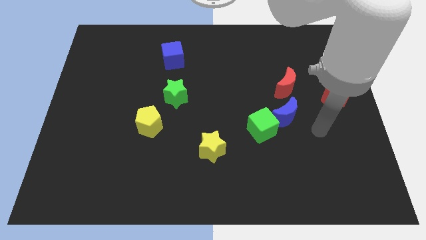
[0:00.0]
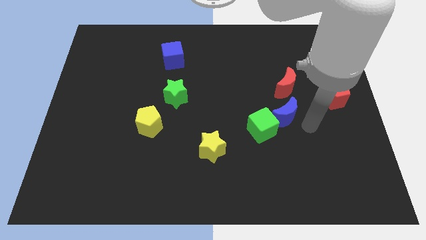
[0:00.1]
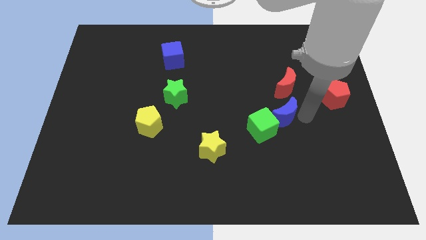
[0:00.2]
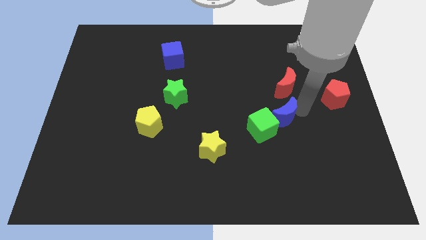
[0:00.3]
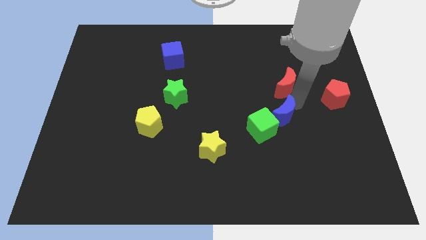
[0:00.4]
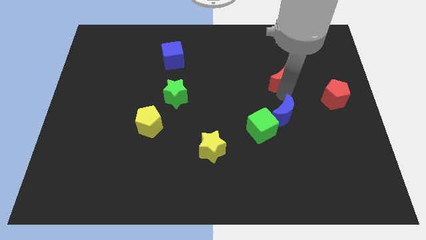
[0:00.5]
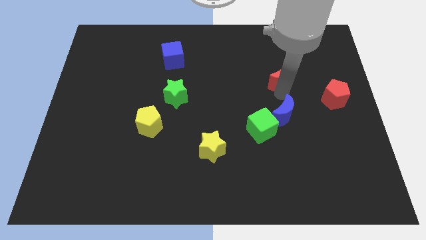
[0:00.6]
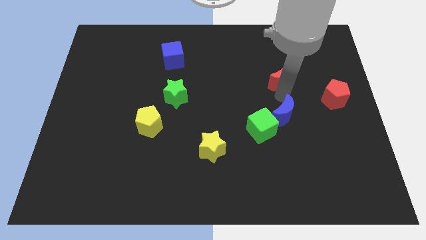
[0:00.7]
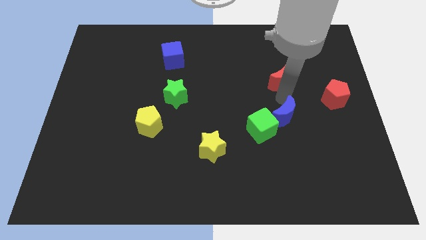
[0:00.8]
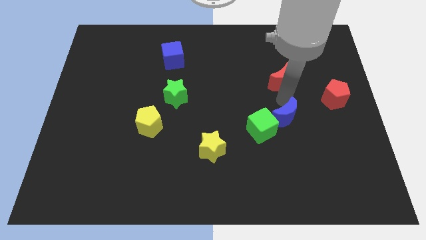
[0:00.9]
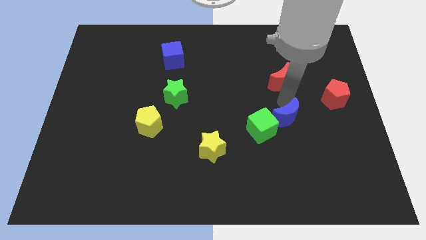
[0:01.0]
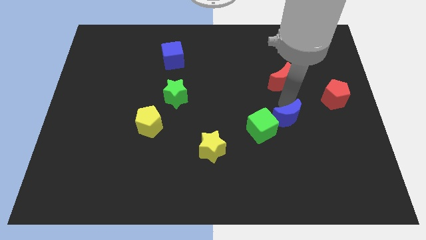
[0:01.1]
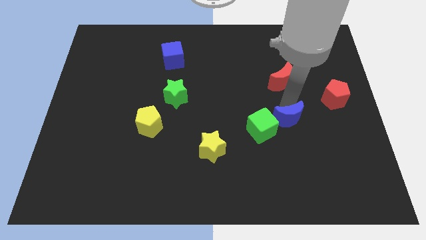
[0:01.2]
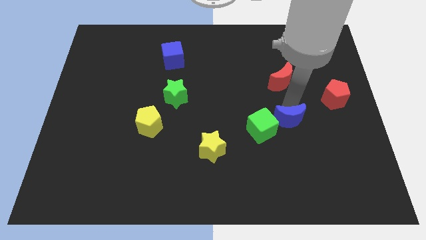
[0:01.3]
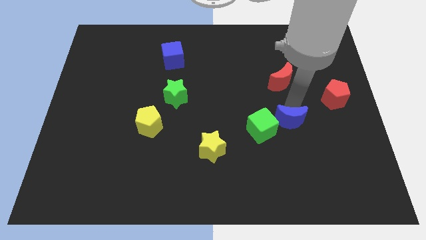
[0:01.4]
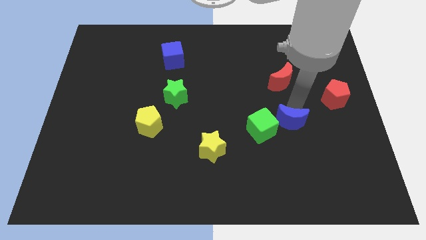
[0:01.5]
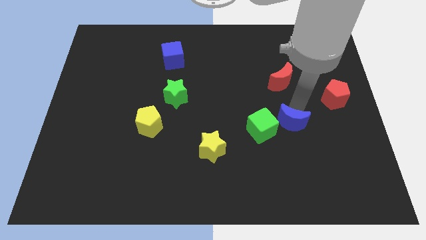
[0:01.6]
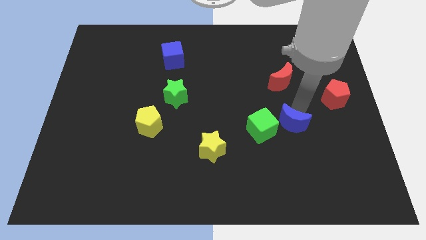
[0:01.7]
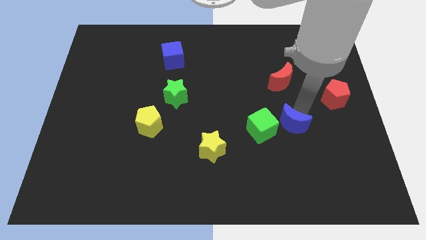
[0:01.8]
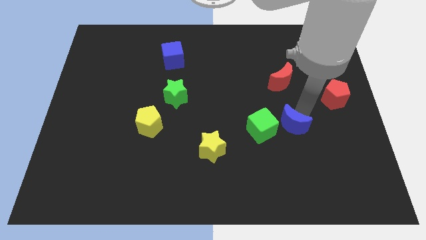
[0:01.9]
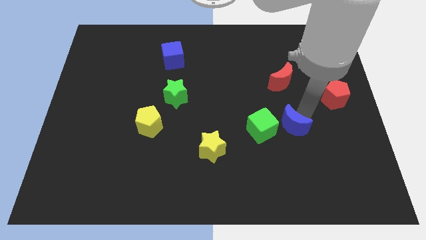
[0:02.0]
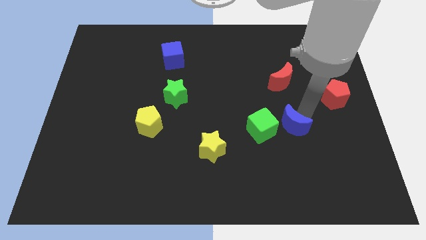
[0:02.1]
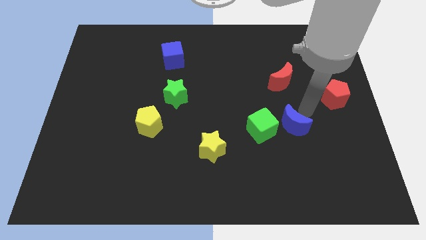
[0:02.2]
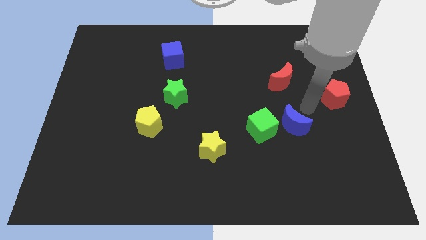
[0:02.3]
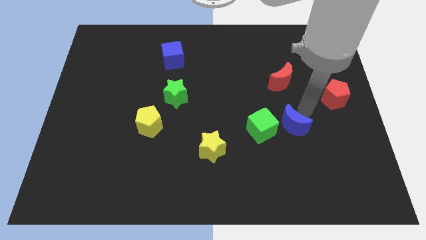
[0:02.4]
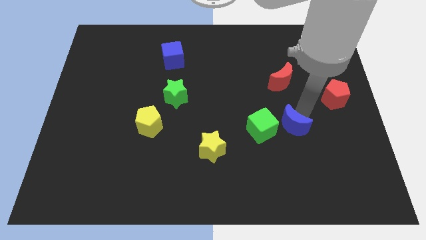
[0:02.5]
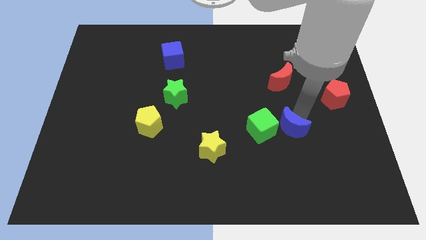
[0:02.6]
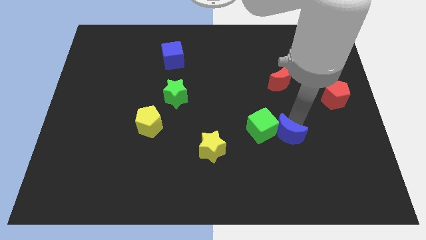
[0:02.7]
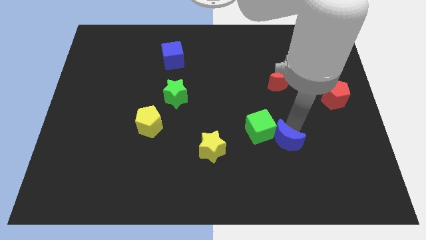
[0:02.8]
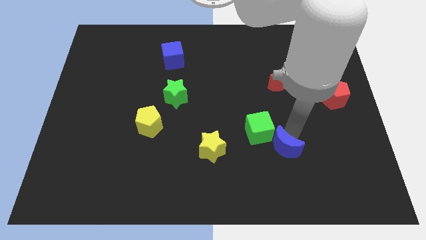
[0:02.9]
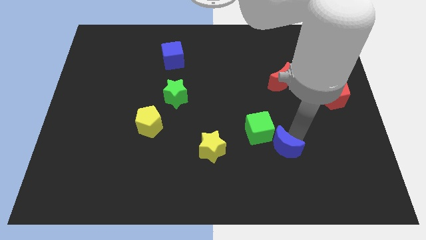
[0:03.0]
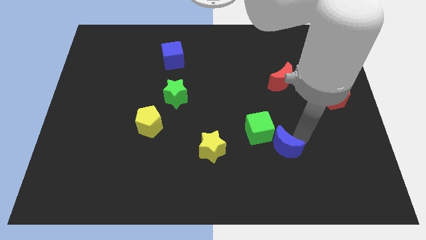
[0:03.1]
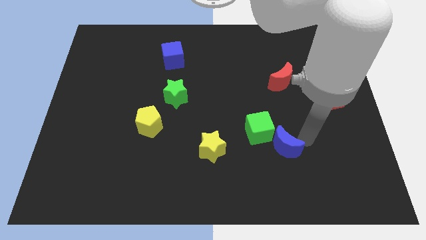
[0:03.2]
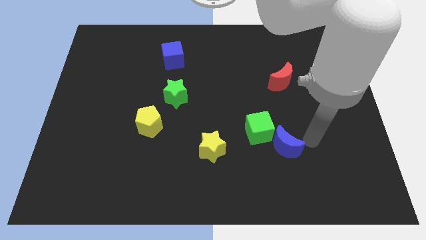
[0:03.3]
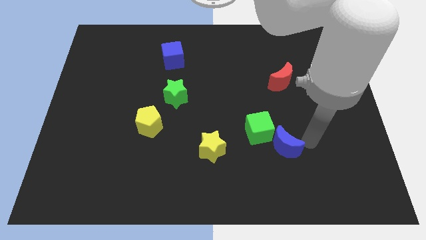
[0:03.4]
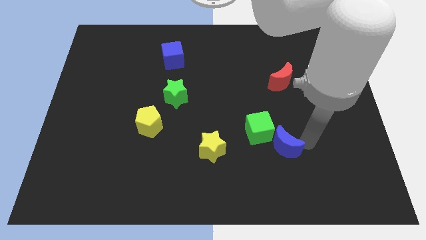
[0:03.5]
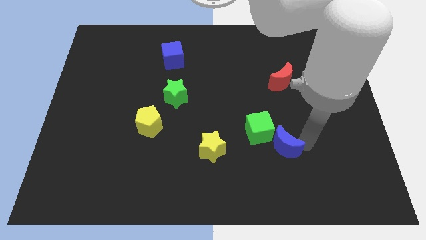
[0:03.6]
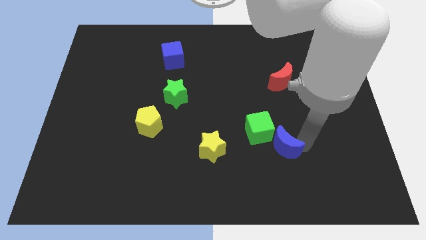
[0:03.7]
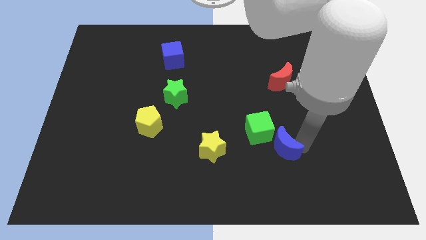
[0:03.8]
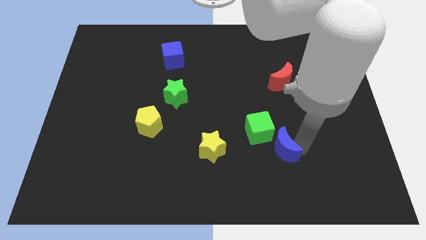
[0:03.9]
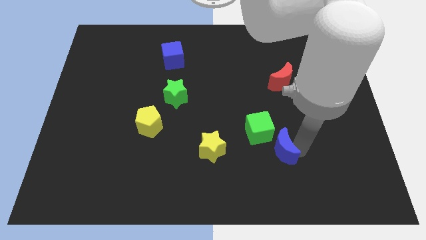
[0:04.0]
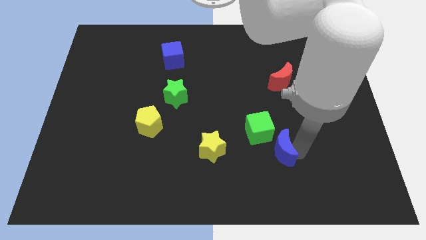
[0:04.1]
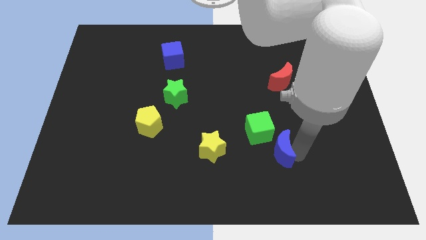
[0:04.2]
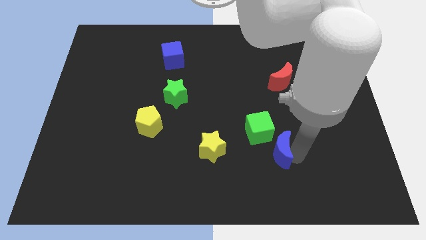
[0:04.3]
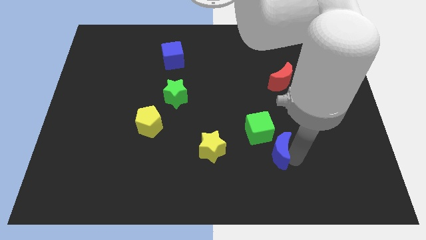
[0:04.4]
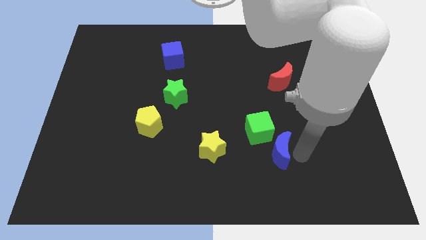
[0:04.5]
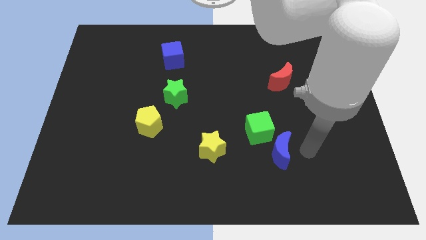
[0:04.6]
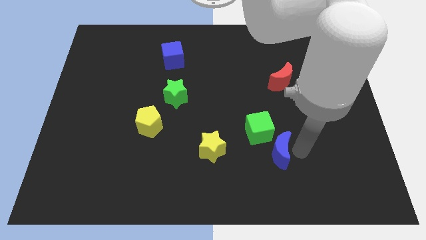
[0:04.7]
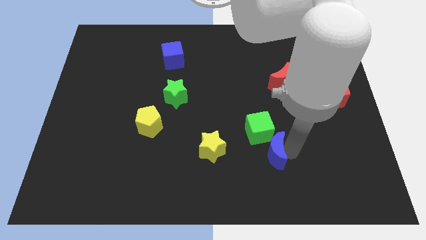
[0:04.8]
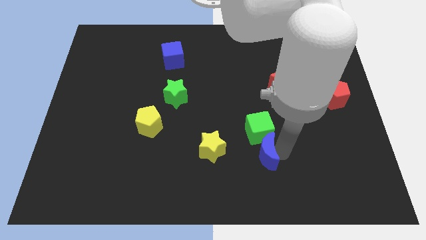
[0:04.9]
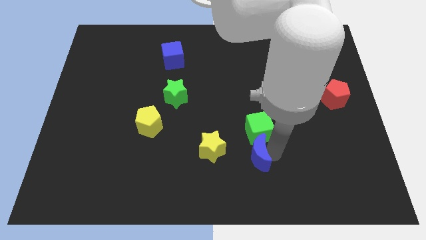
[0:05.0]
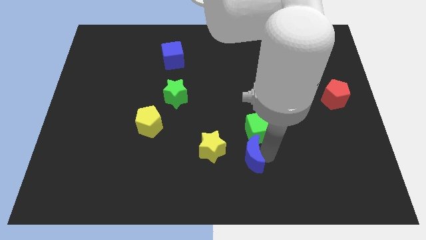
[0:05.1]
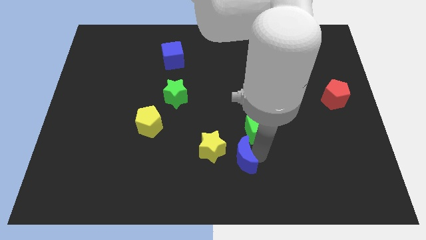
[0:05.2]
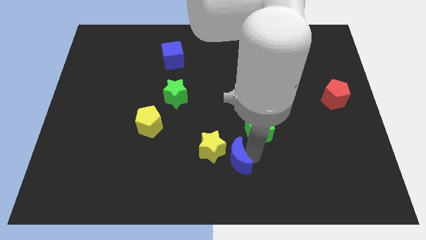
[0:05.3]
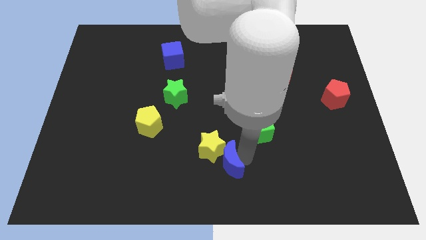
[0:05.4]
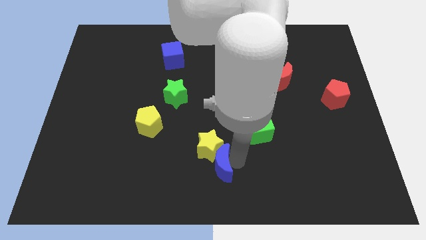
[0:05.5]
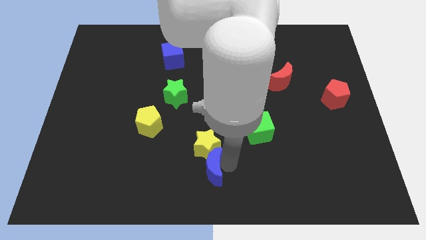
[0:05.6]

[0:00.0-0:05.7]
put the blue moon diagonally down and to the left of the yellow star

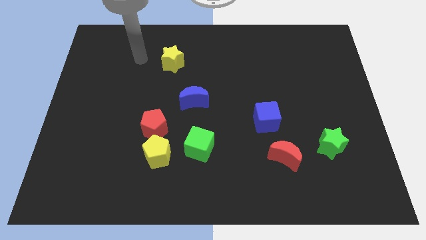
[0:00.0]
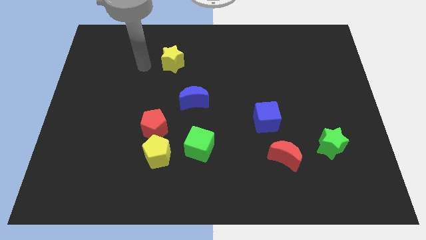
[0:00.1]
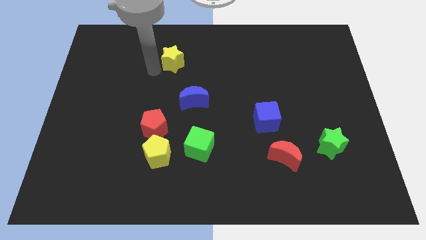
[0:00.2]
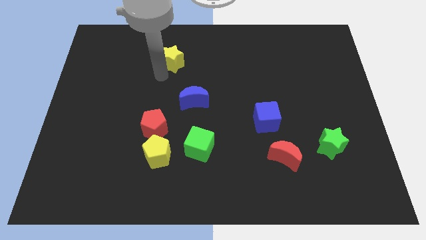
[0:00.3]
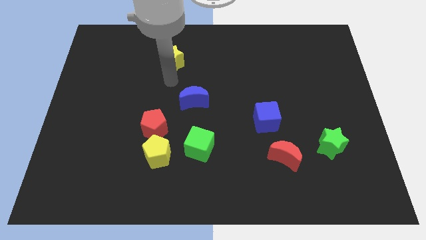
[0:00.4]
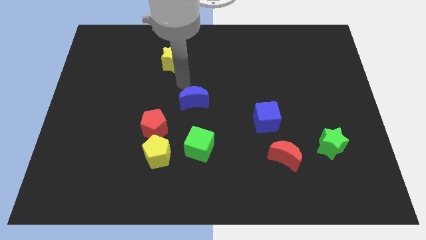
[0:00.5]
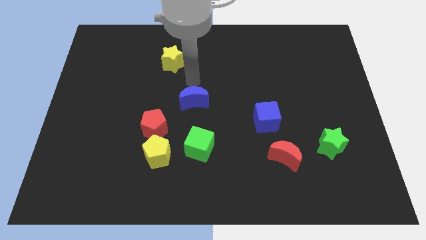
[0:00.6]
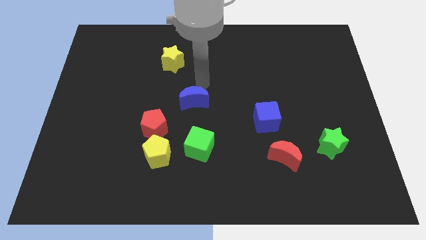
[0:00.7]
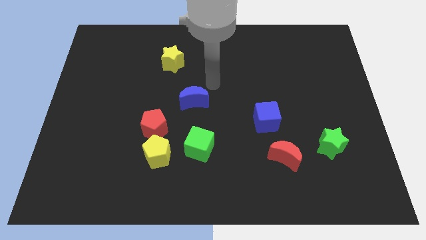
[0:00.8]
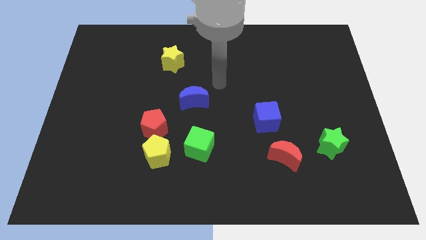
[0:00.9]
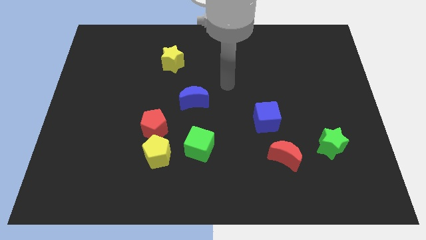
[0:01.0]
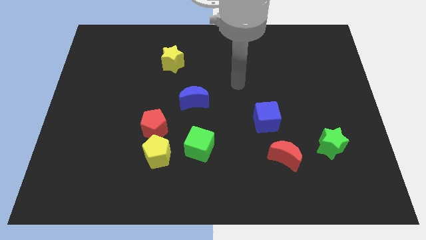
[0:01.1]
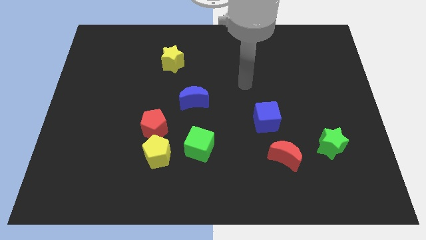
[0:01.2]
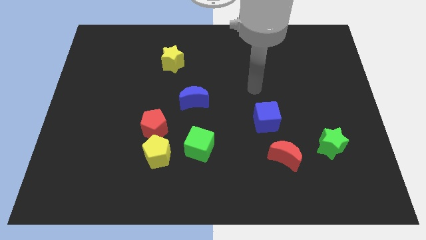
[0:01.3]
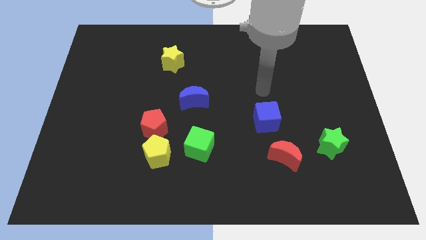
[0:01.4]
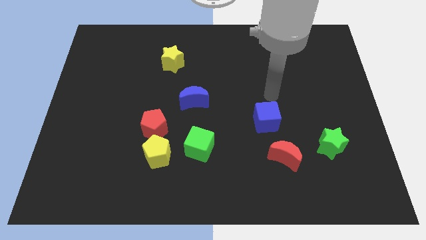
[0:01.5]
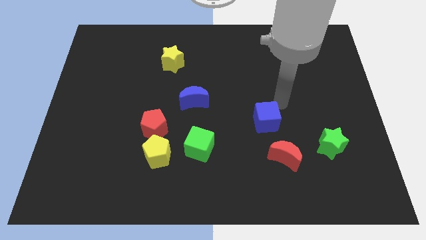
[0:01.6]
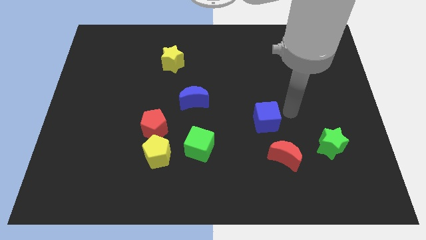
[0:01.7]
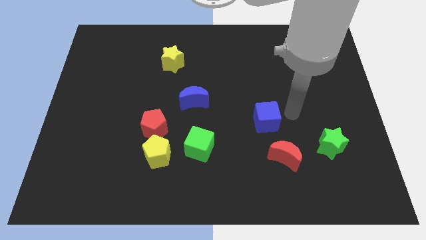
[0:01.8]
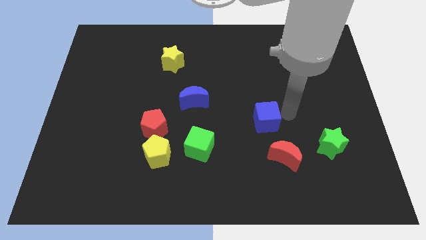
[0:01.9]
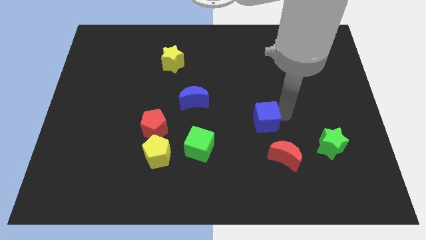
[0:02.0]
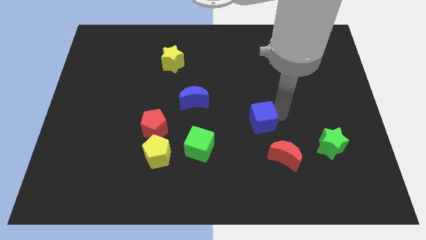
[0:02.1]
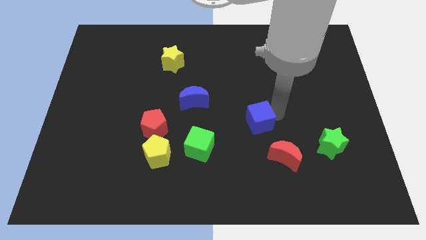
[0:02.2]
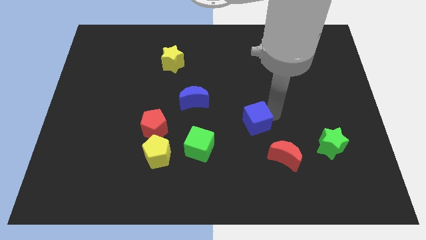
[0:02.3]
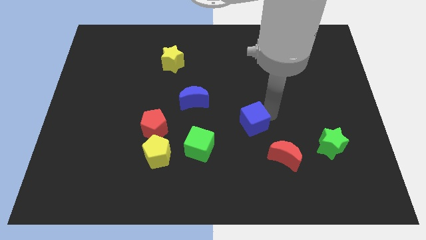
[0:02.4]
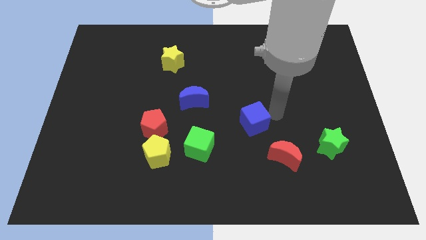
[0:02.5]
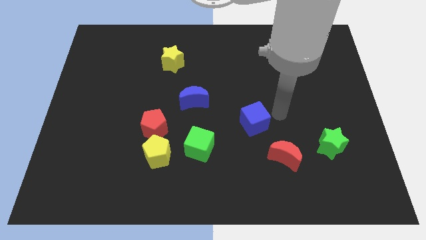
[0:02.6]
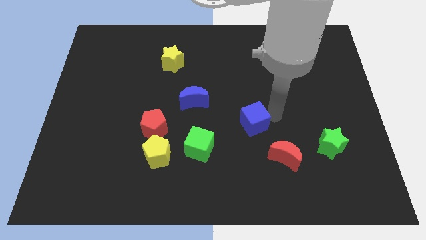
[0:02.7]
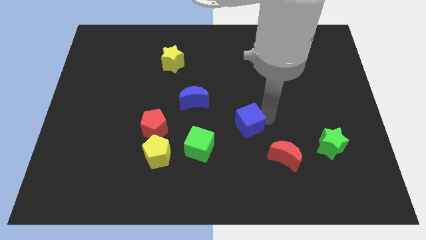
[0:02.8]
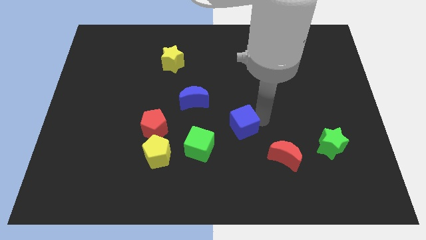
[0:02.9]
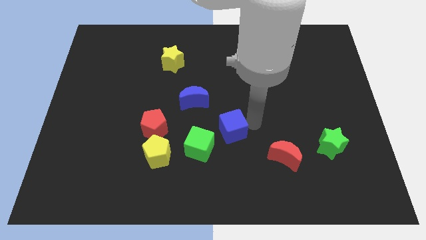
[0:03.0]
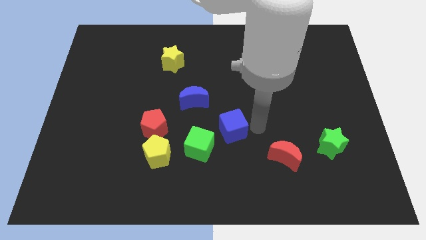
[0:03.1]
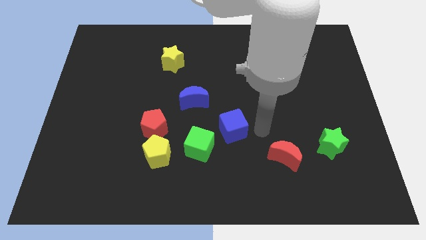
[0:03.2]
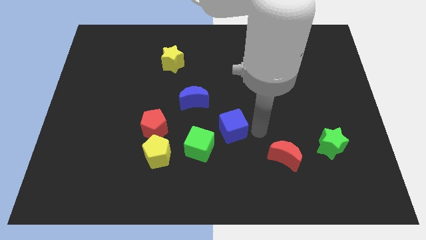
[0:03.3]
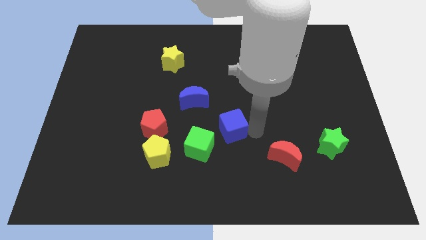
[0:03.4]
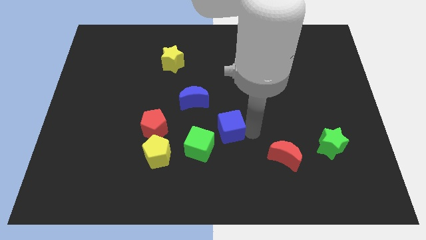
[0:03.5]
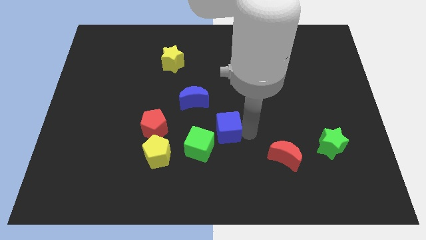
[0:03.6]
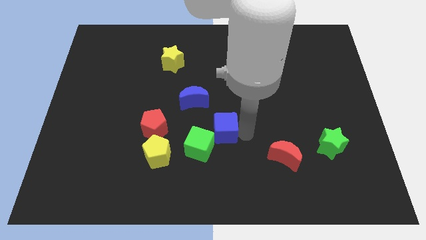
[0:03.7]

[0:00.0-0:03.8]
put the blue cube to the right of the red pentagon
